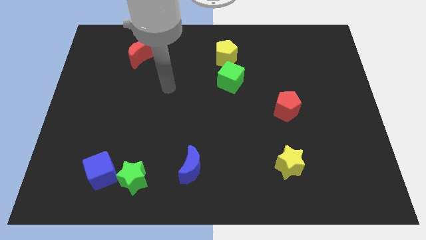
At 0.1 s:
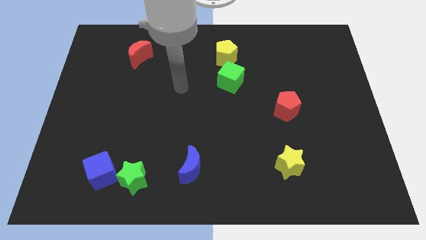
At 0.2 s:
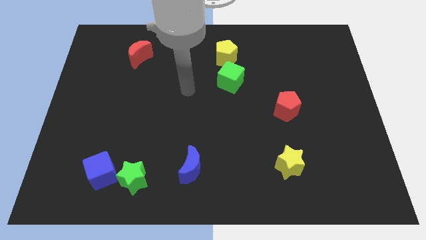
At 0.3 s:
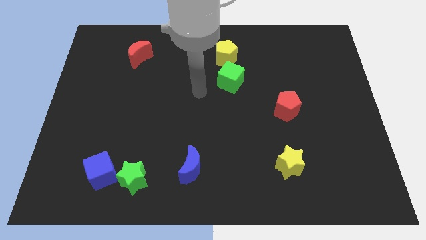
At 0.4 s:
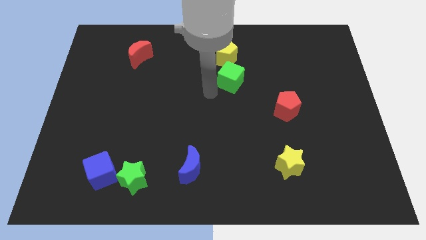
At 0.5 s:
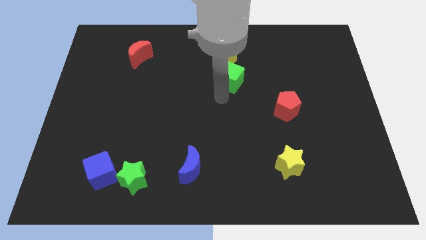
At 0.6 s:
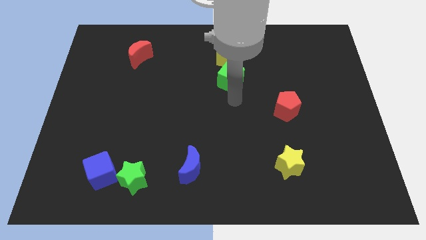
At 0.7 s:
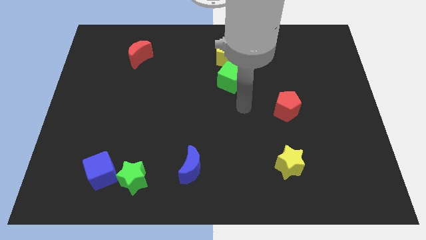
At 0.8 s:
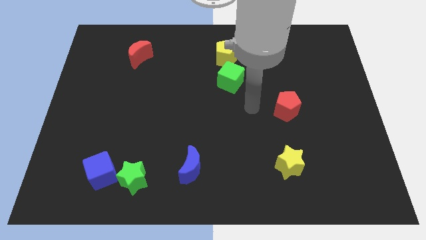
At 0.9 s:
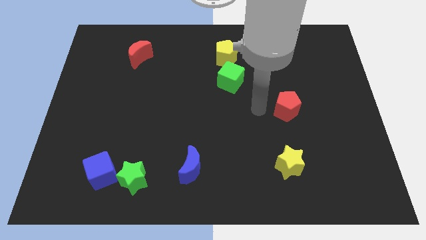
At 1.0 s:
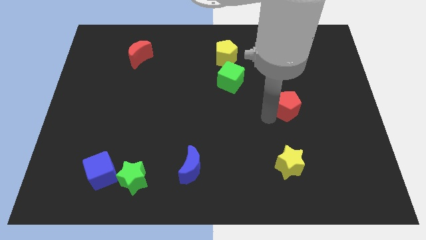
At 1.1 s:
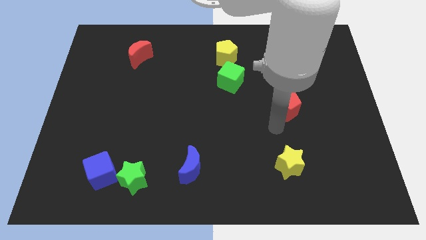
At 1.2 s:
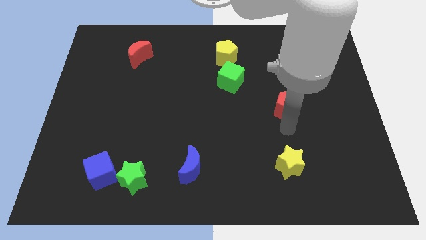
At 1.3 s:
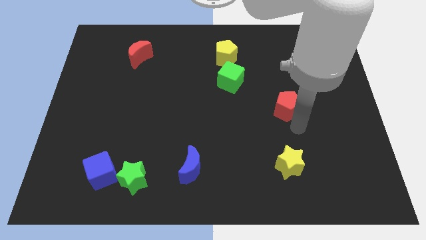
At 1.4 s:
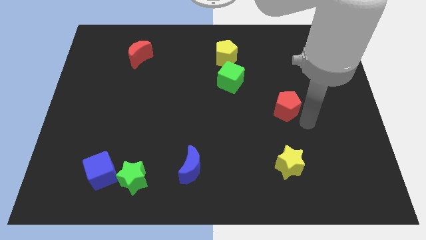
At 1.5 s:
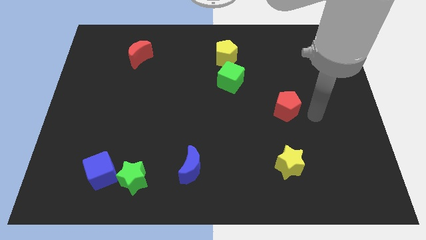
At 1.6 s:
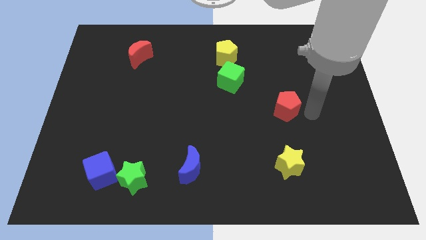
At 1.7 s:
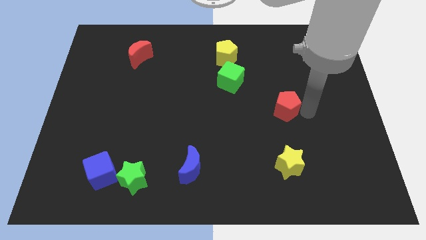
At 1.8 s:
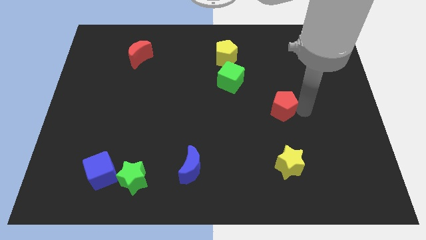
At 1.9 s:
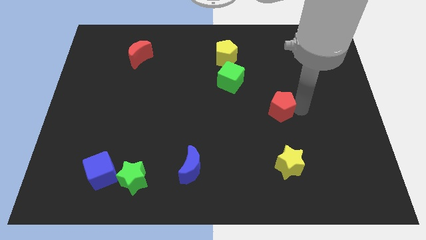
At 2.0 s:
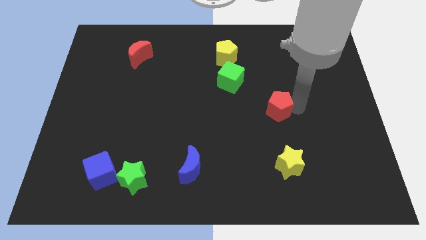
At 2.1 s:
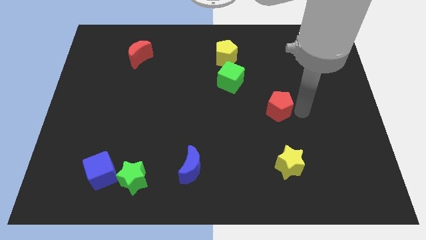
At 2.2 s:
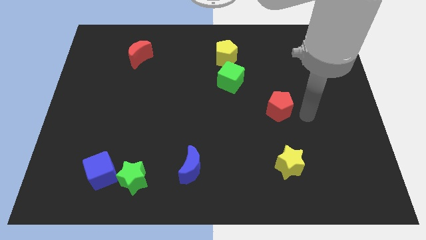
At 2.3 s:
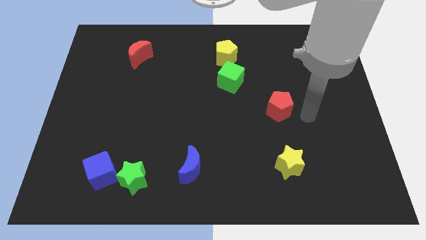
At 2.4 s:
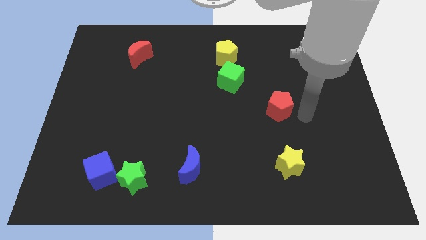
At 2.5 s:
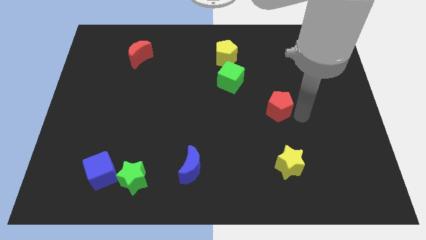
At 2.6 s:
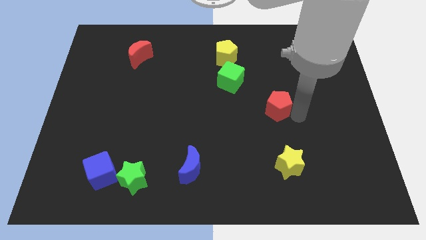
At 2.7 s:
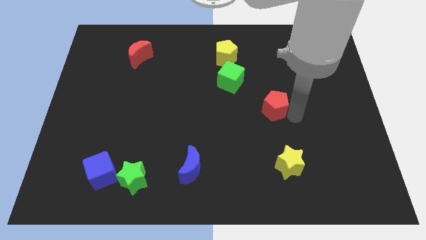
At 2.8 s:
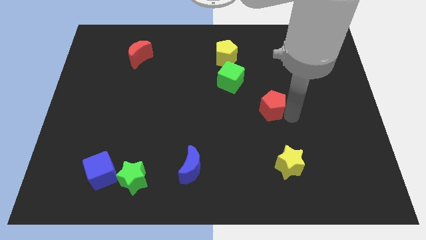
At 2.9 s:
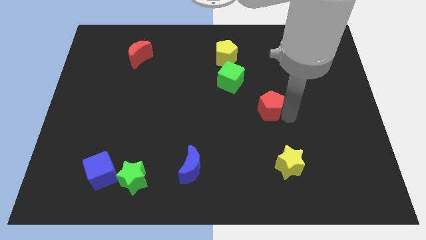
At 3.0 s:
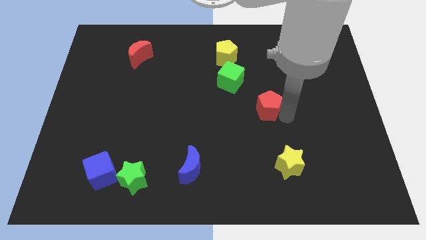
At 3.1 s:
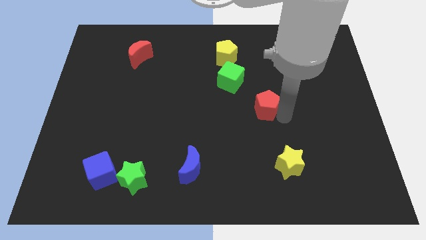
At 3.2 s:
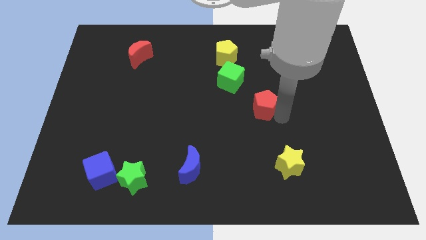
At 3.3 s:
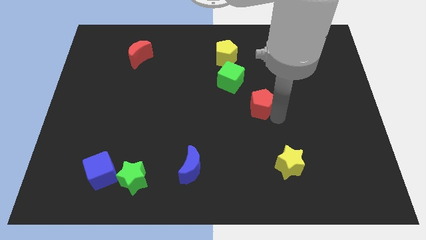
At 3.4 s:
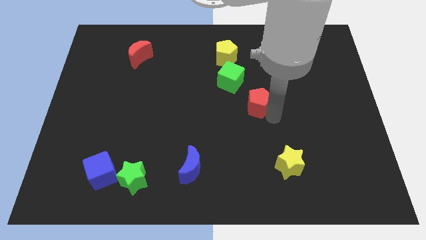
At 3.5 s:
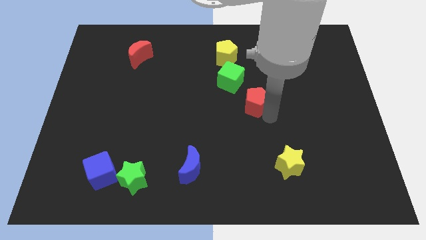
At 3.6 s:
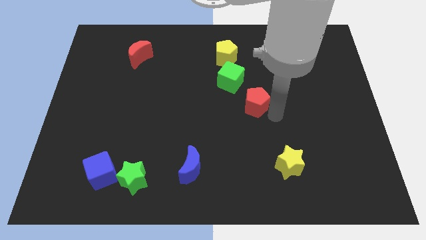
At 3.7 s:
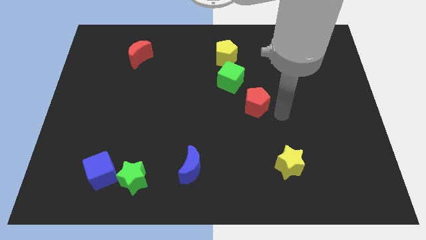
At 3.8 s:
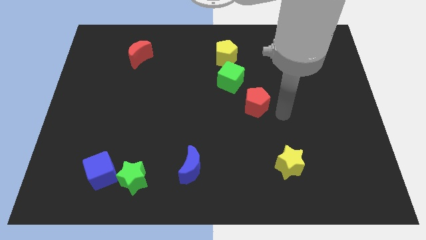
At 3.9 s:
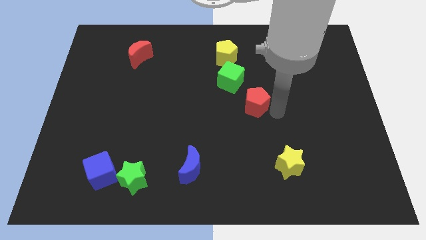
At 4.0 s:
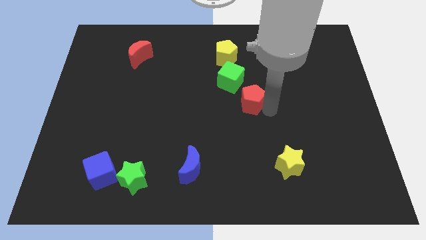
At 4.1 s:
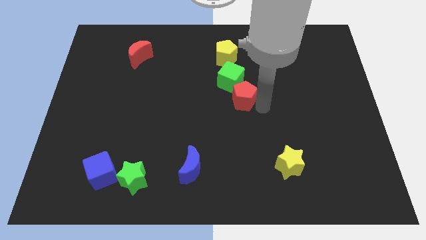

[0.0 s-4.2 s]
slide the red pentagon somewhat up and to the left

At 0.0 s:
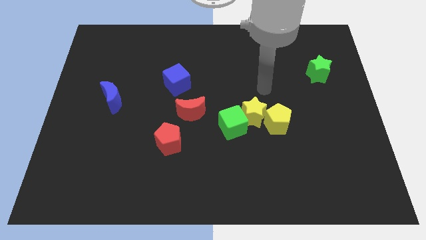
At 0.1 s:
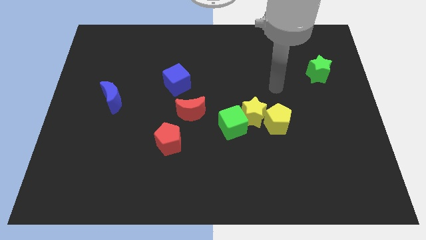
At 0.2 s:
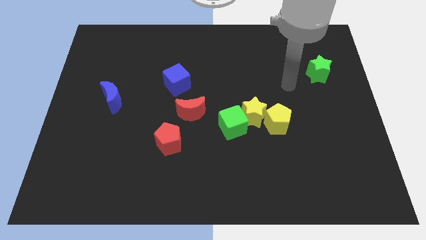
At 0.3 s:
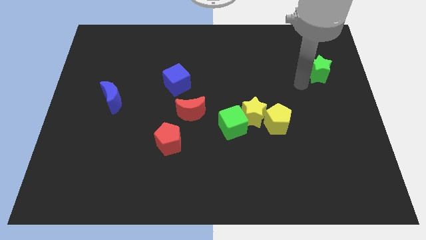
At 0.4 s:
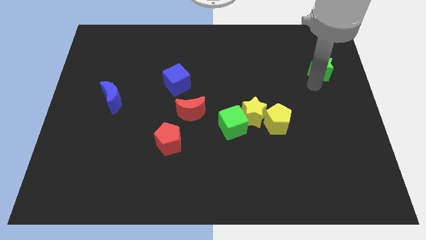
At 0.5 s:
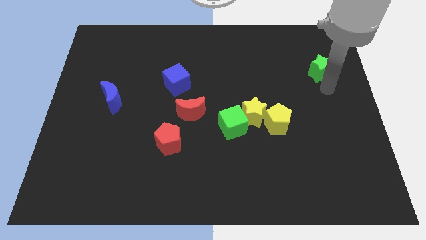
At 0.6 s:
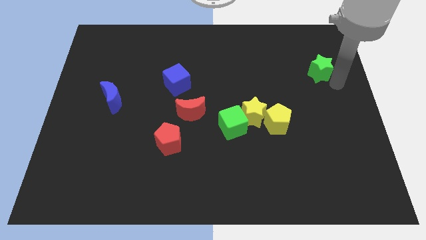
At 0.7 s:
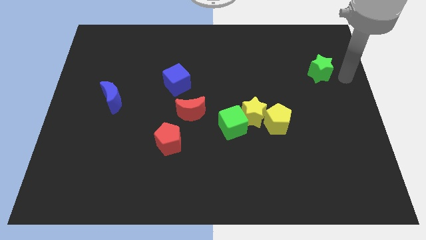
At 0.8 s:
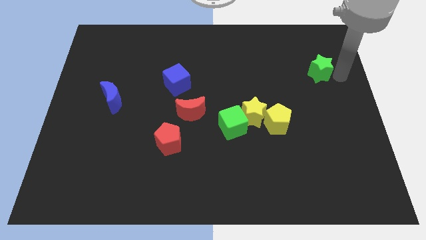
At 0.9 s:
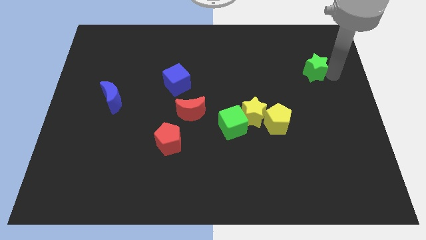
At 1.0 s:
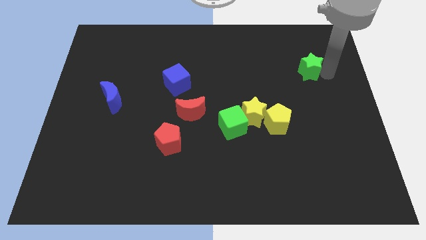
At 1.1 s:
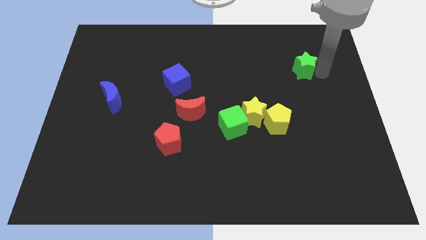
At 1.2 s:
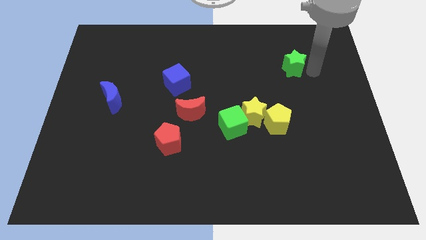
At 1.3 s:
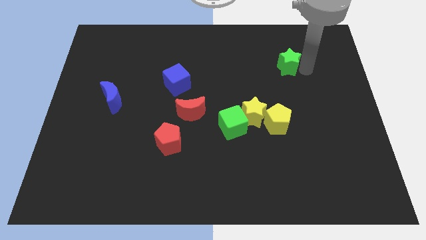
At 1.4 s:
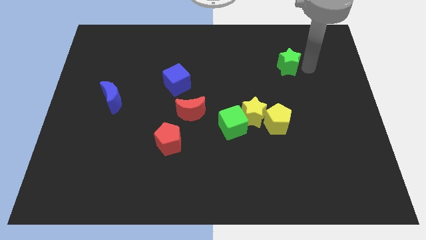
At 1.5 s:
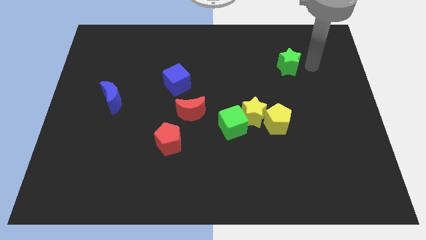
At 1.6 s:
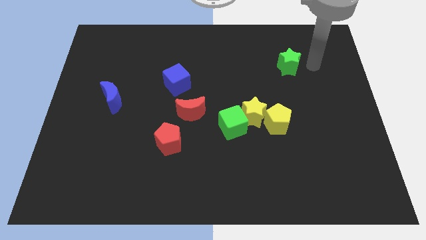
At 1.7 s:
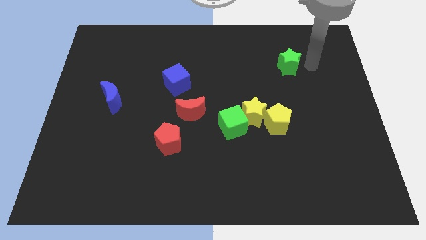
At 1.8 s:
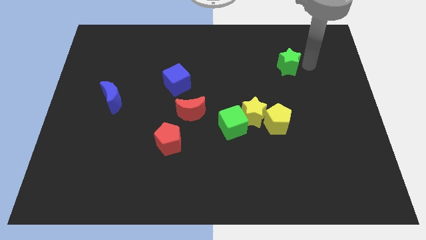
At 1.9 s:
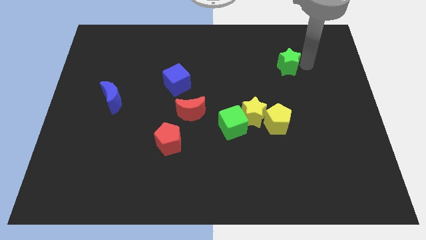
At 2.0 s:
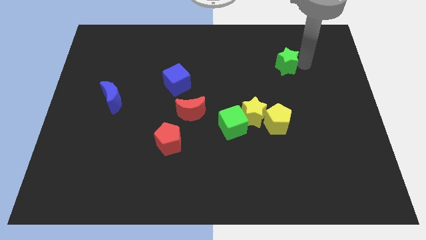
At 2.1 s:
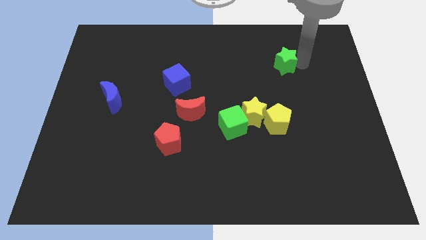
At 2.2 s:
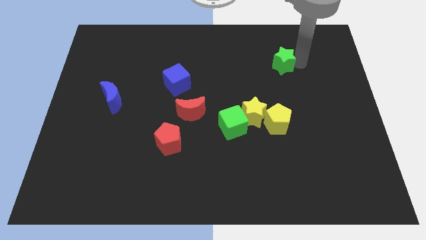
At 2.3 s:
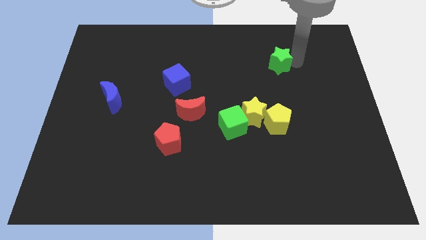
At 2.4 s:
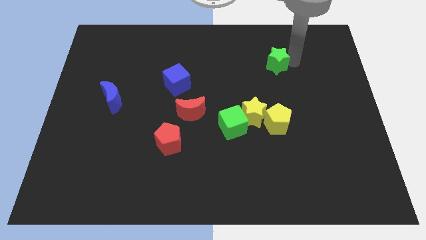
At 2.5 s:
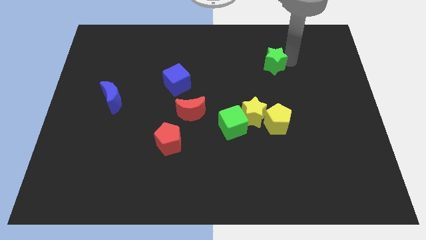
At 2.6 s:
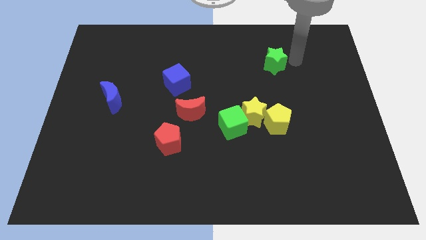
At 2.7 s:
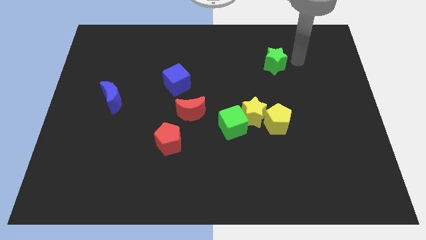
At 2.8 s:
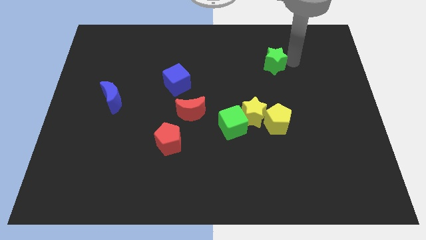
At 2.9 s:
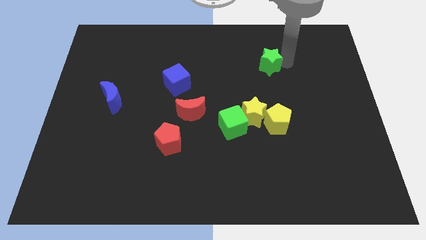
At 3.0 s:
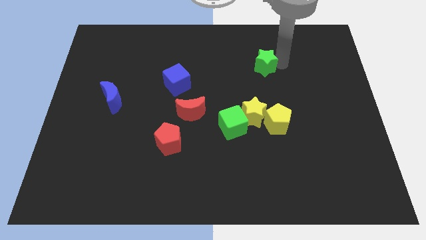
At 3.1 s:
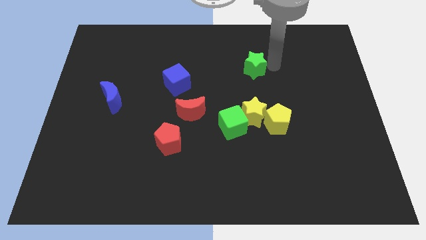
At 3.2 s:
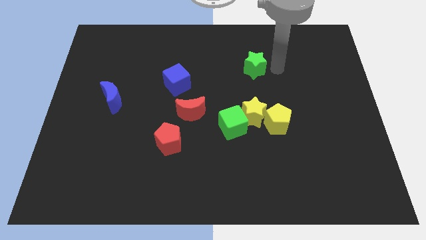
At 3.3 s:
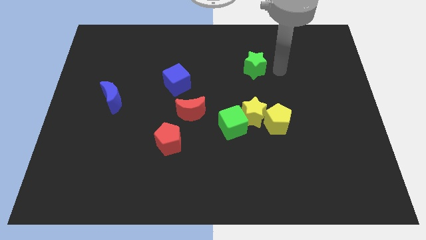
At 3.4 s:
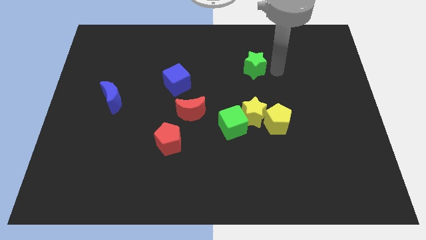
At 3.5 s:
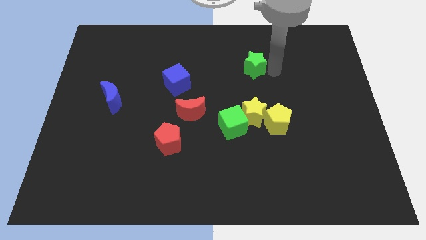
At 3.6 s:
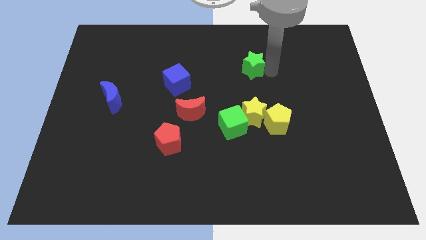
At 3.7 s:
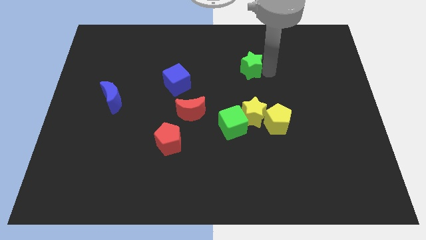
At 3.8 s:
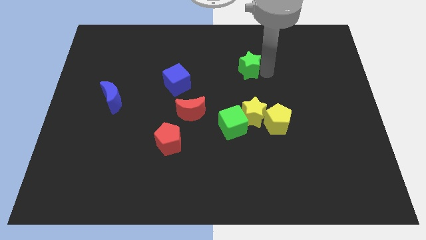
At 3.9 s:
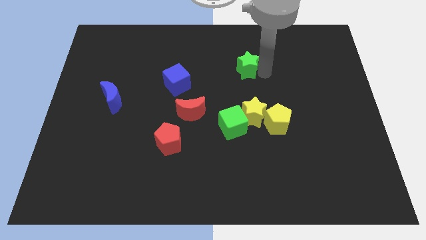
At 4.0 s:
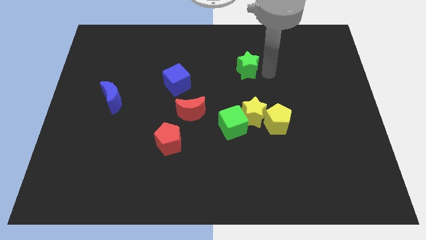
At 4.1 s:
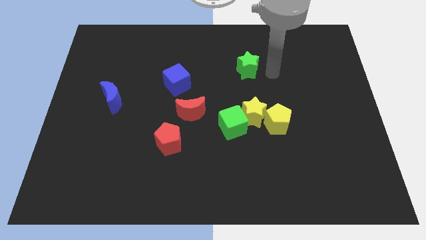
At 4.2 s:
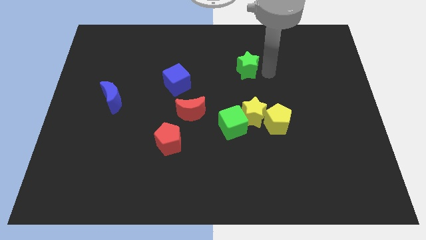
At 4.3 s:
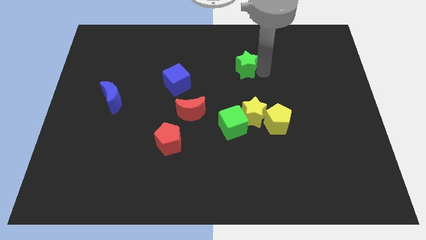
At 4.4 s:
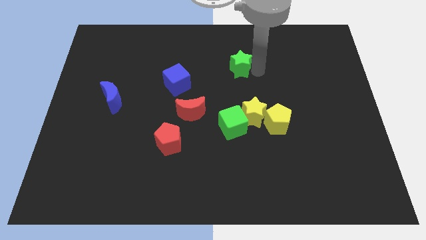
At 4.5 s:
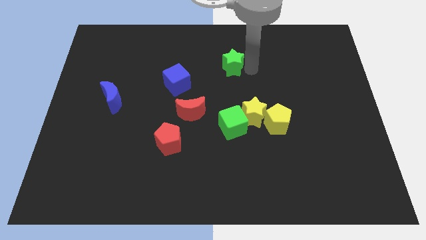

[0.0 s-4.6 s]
push the green star left
